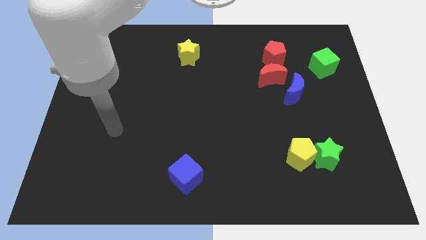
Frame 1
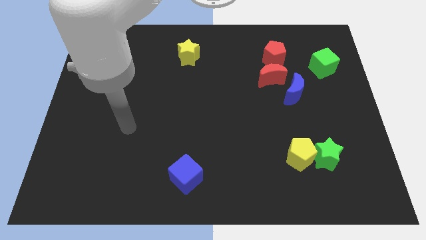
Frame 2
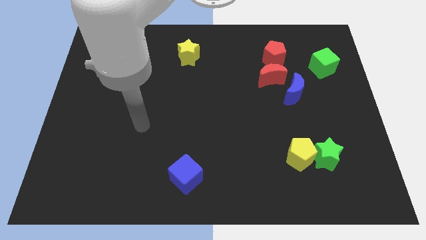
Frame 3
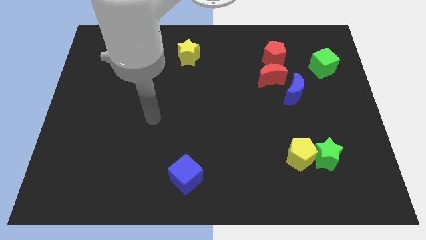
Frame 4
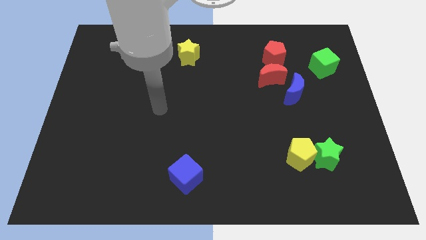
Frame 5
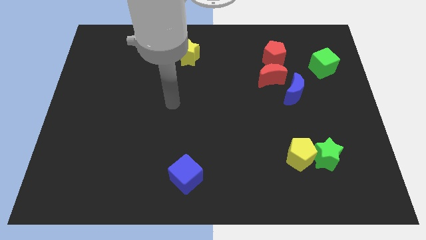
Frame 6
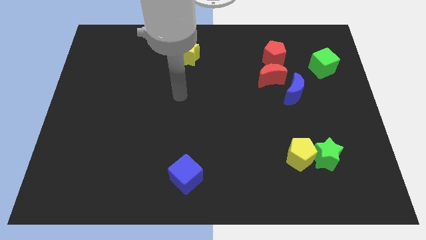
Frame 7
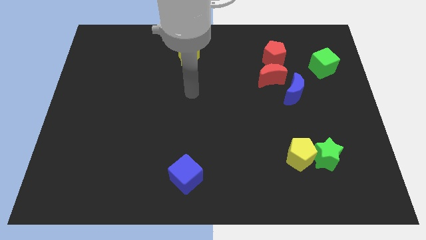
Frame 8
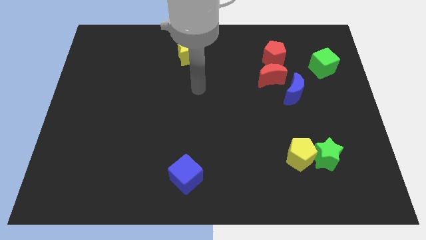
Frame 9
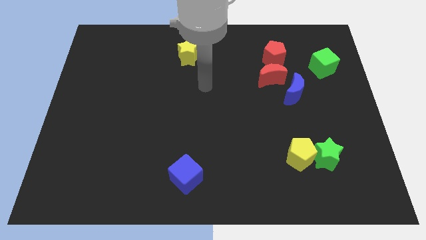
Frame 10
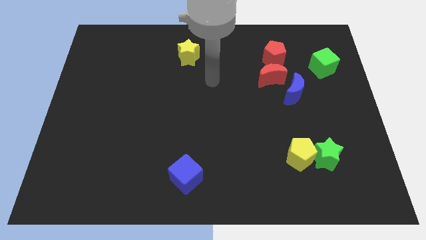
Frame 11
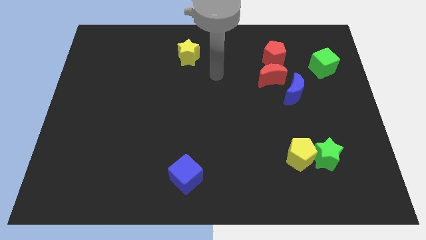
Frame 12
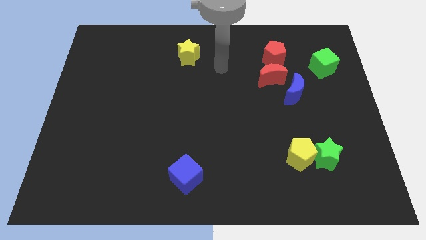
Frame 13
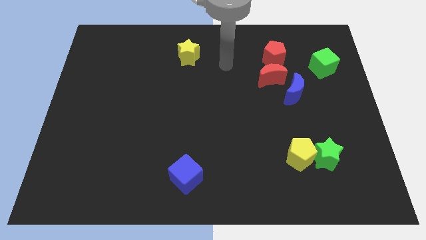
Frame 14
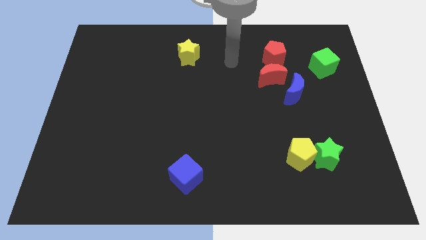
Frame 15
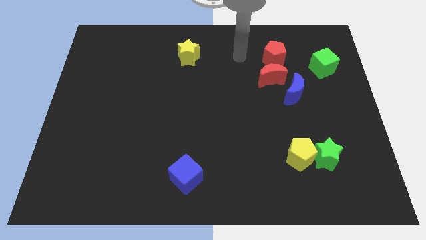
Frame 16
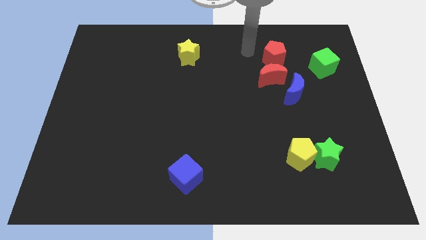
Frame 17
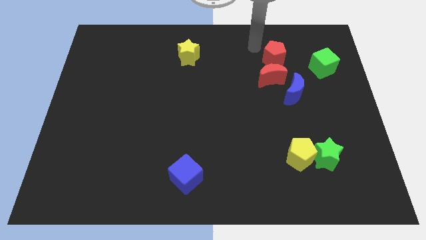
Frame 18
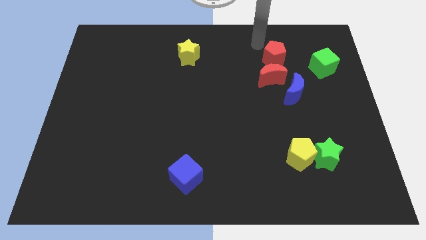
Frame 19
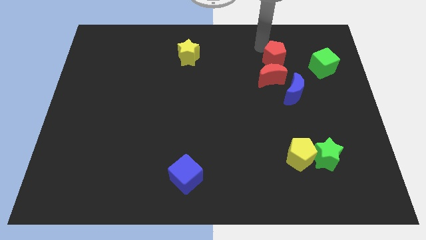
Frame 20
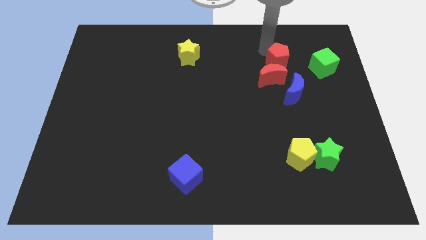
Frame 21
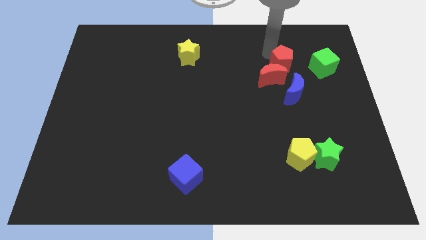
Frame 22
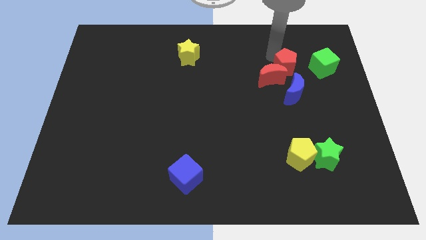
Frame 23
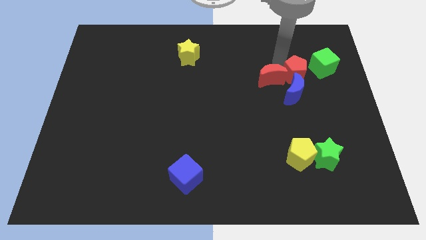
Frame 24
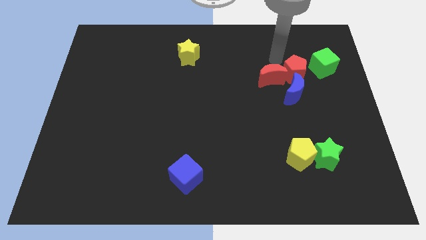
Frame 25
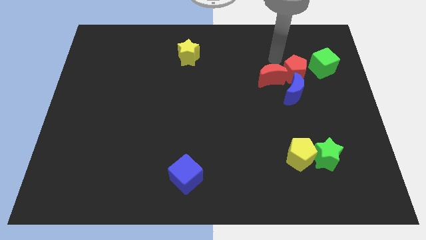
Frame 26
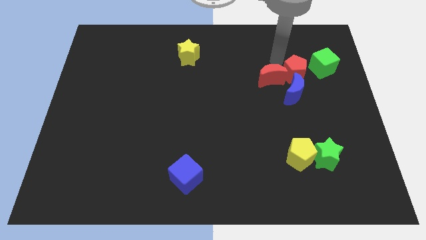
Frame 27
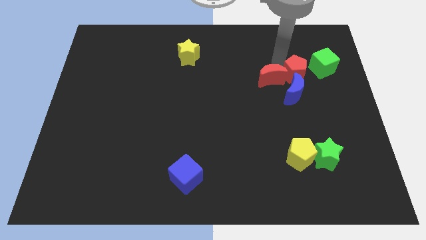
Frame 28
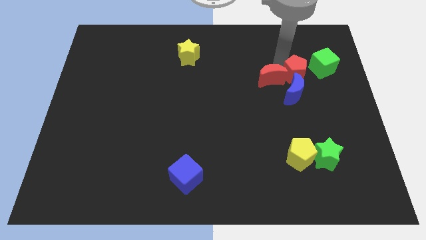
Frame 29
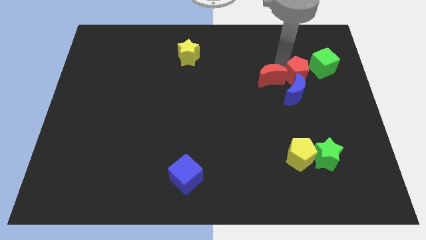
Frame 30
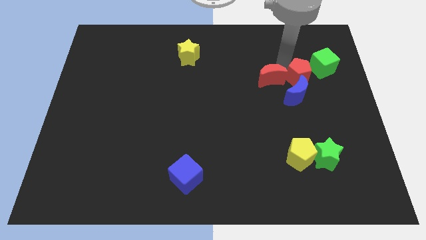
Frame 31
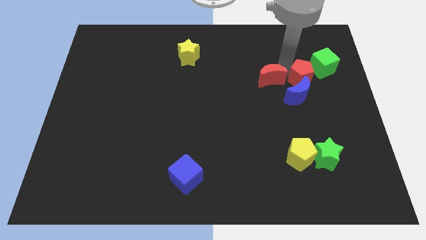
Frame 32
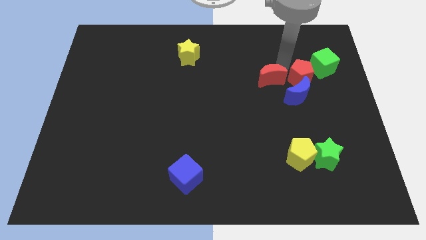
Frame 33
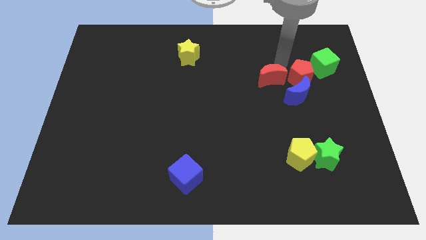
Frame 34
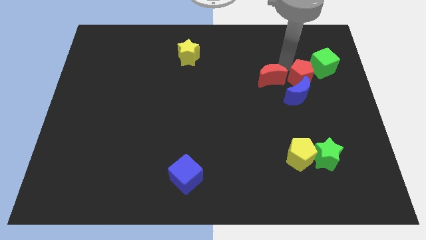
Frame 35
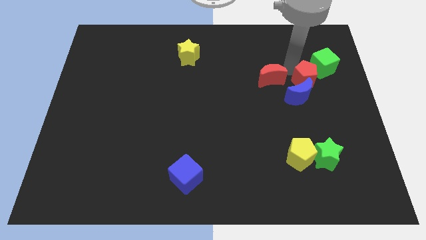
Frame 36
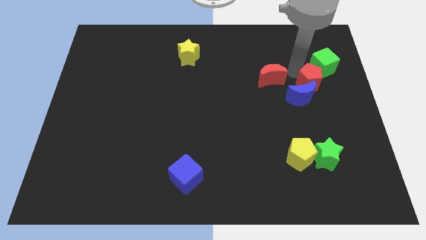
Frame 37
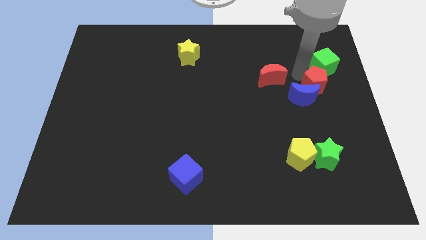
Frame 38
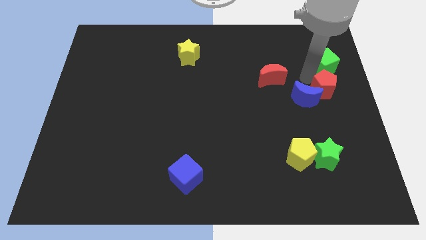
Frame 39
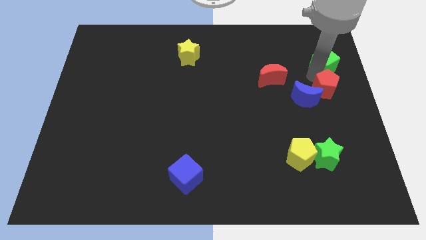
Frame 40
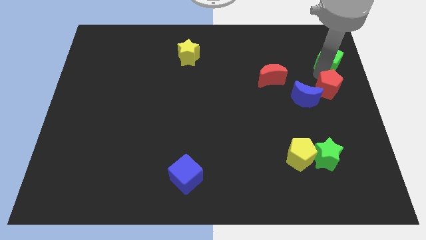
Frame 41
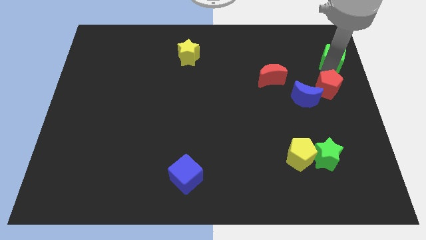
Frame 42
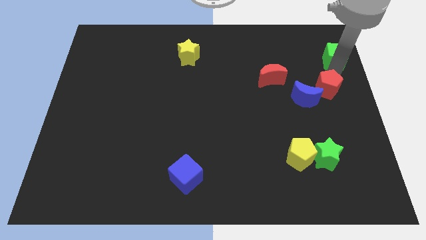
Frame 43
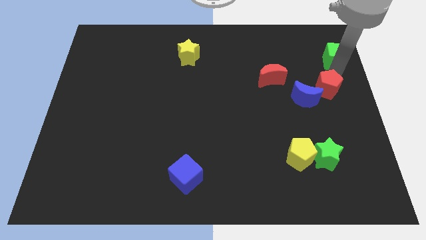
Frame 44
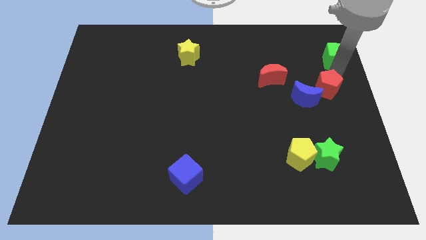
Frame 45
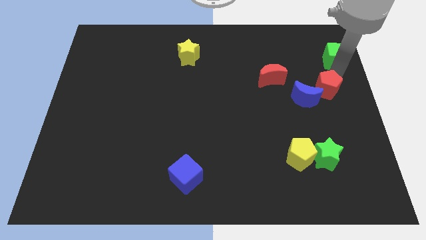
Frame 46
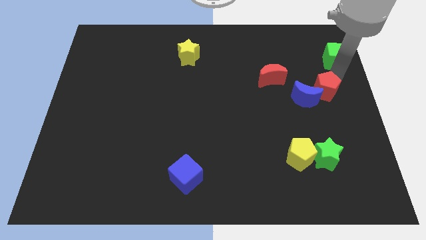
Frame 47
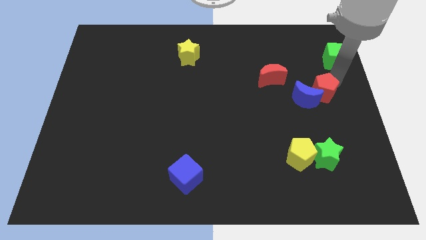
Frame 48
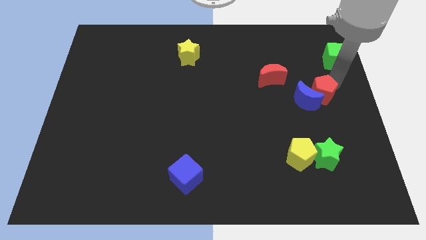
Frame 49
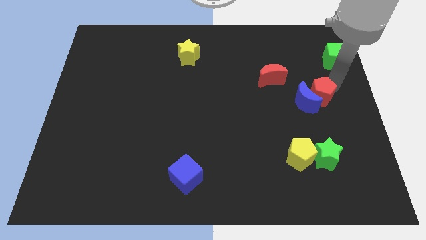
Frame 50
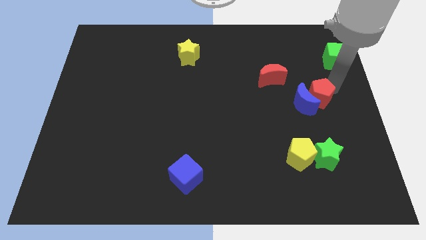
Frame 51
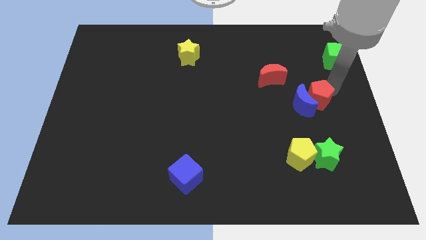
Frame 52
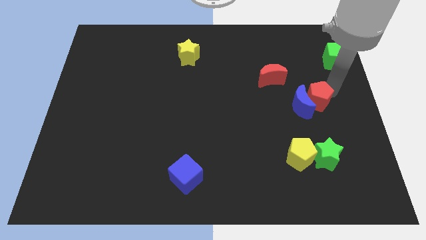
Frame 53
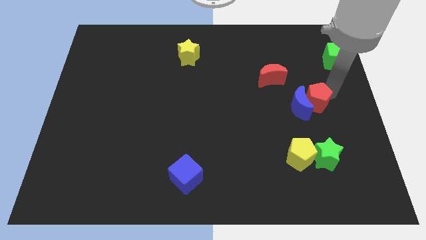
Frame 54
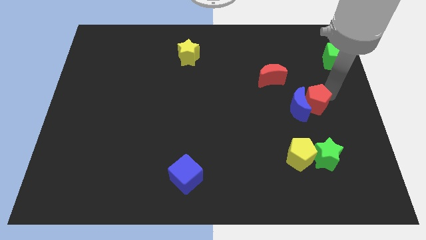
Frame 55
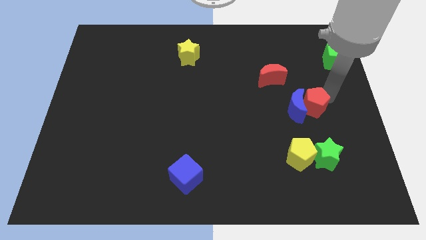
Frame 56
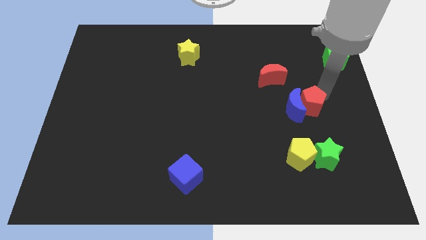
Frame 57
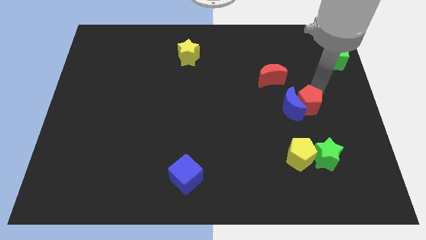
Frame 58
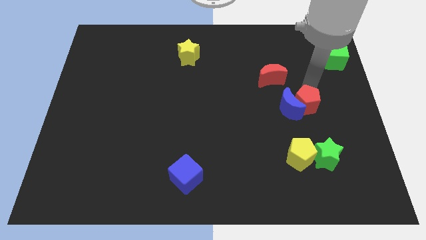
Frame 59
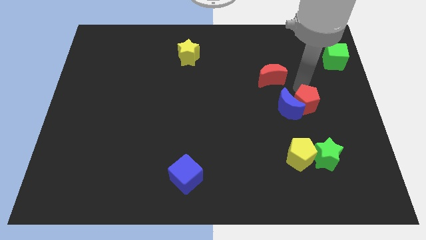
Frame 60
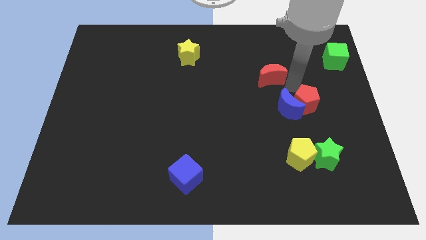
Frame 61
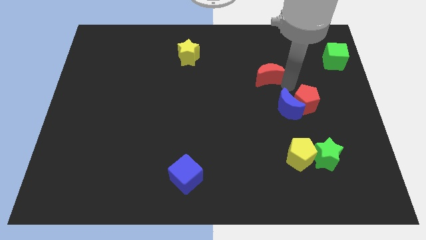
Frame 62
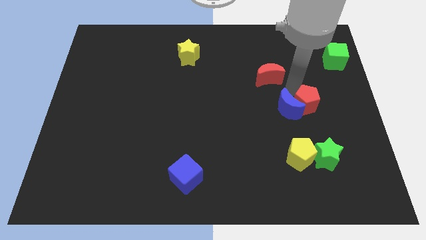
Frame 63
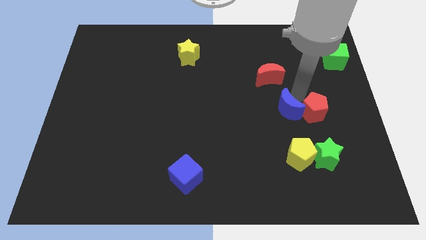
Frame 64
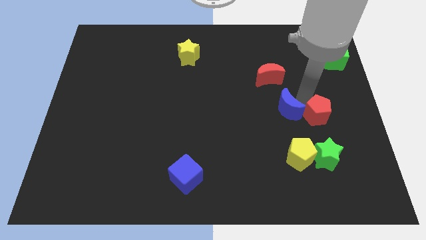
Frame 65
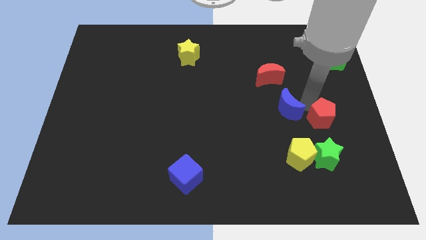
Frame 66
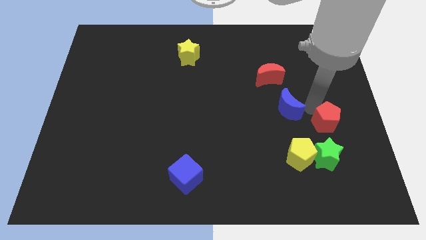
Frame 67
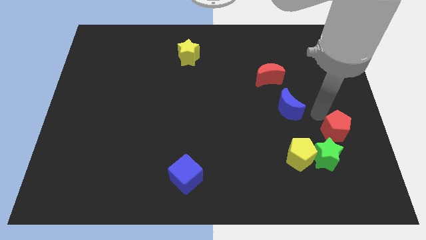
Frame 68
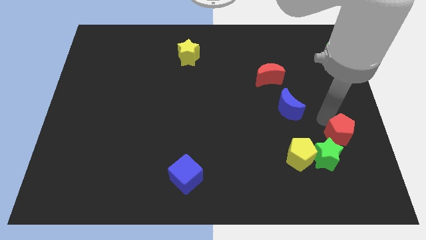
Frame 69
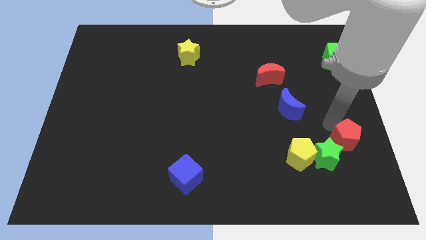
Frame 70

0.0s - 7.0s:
push the red pentagon to the right of the yellow pentagon
